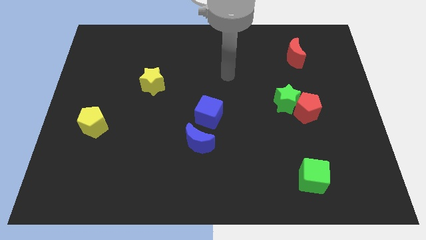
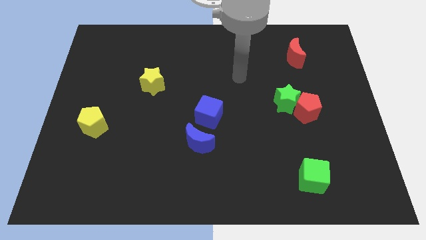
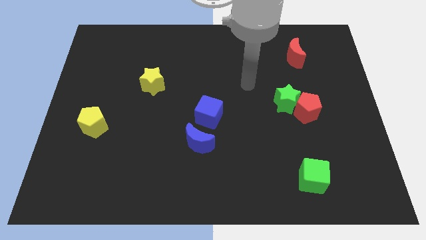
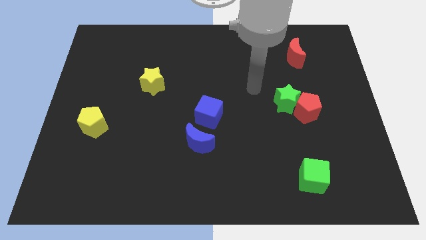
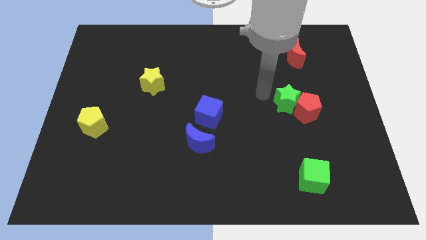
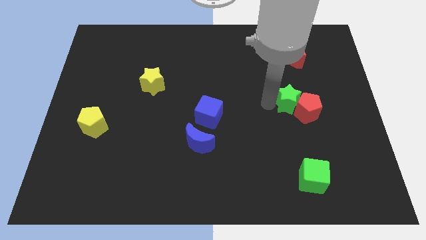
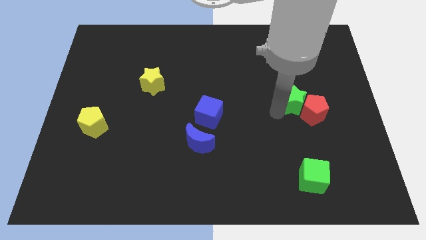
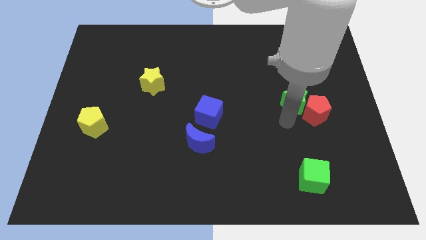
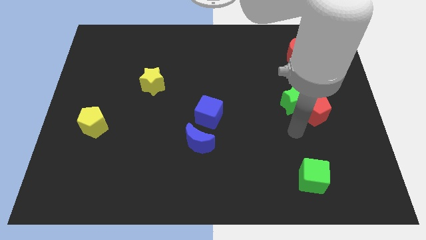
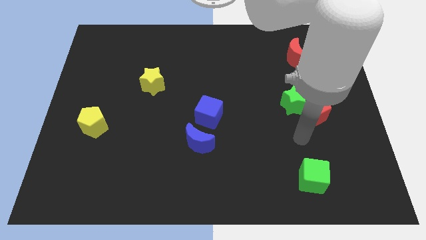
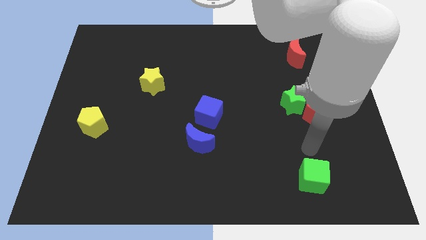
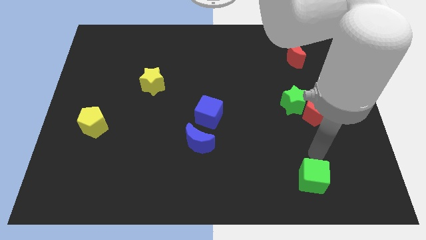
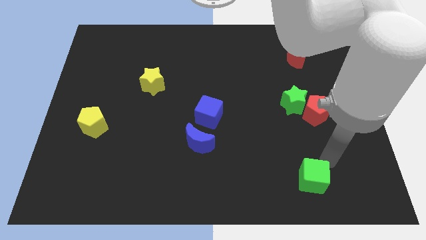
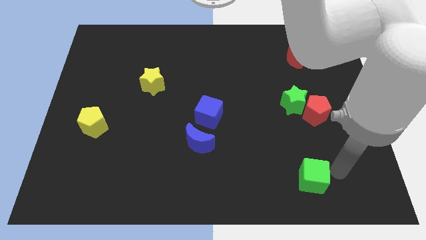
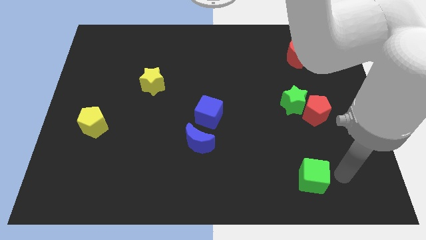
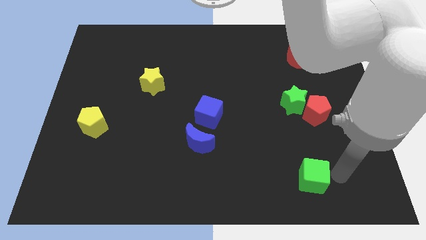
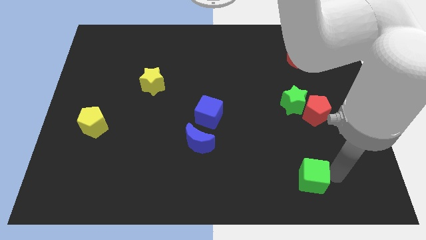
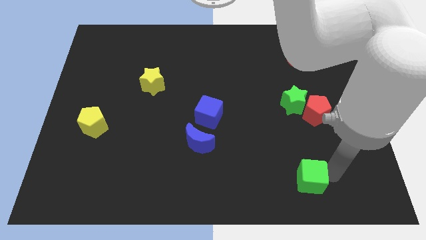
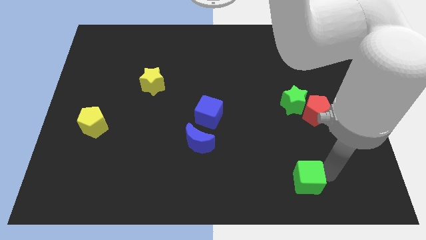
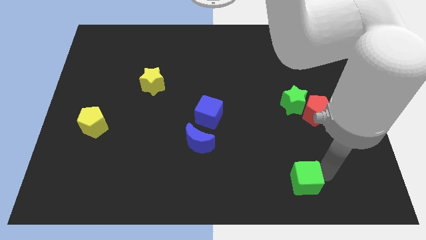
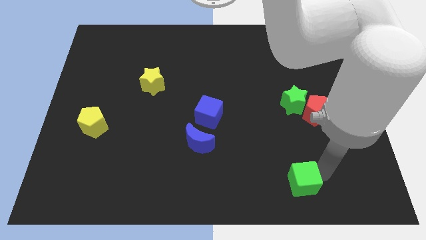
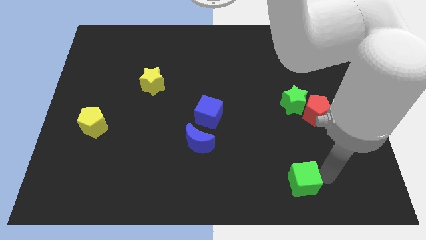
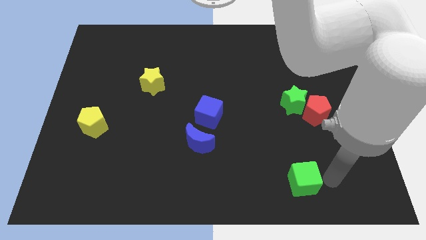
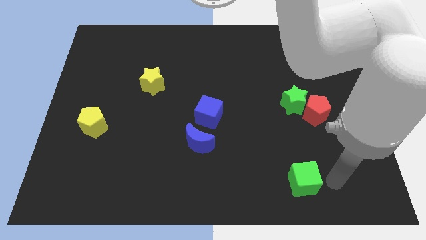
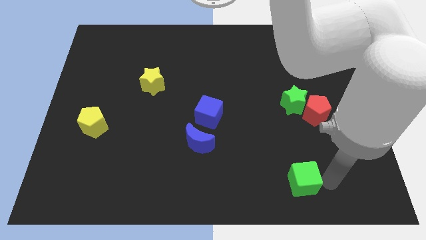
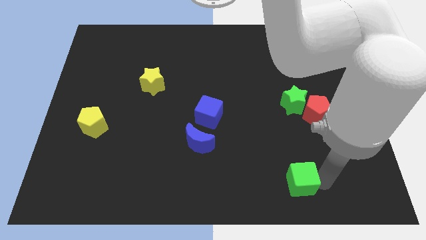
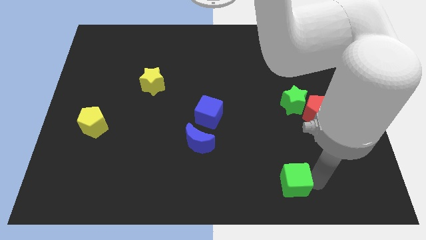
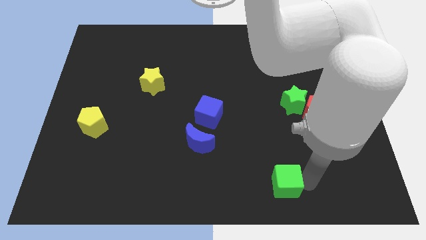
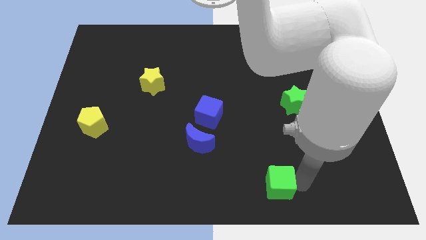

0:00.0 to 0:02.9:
slide the green cube to the left a little bit

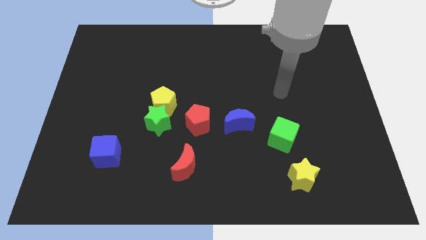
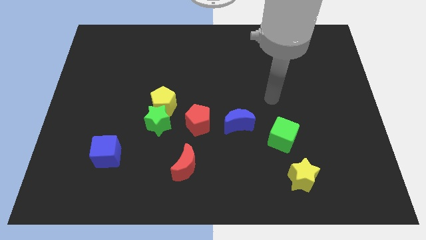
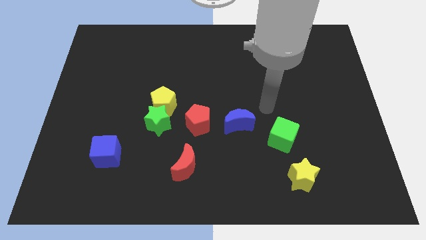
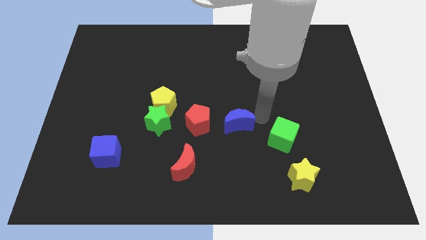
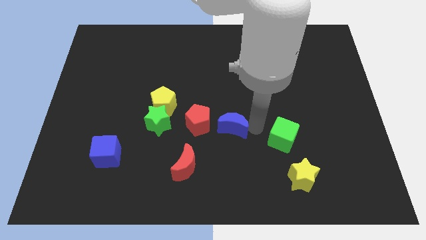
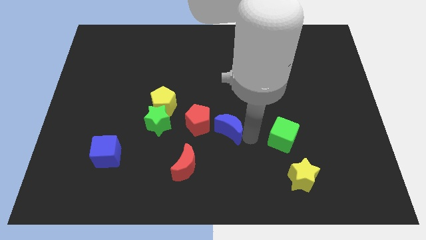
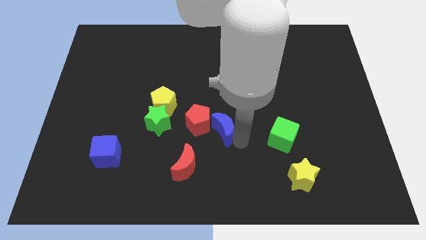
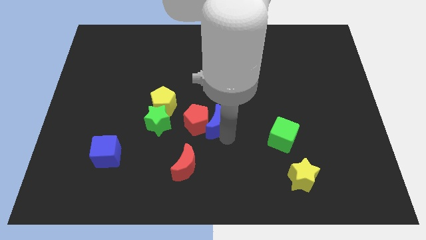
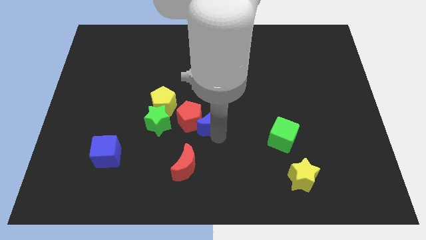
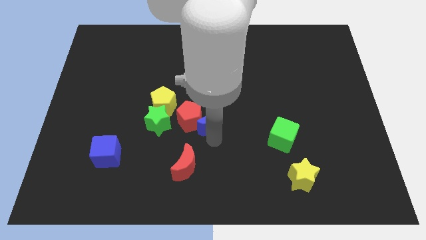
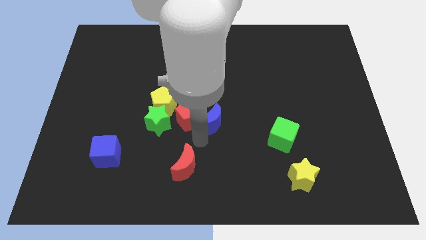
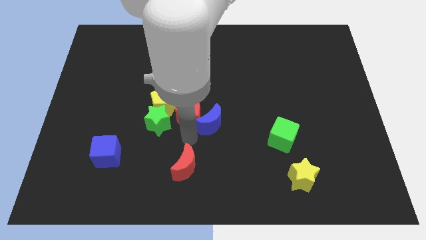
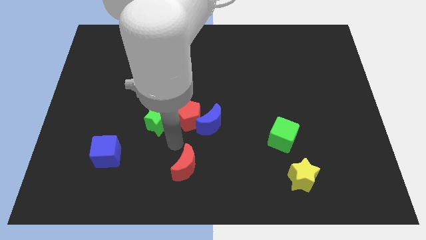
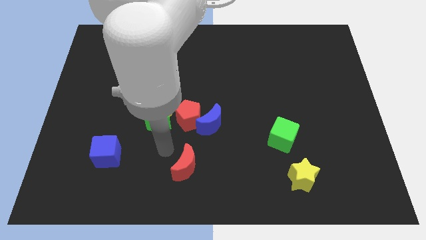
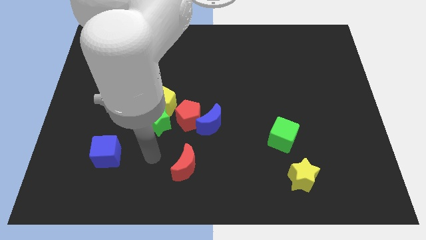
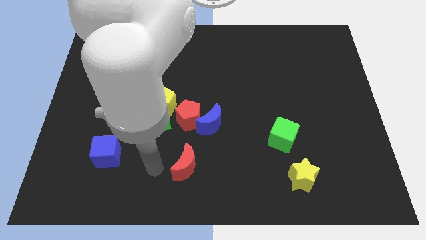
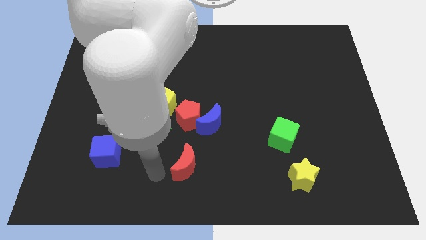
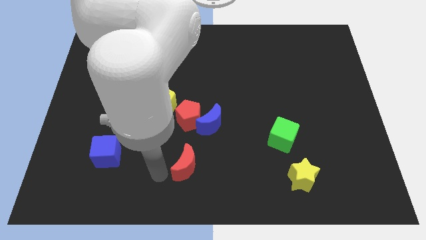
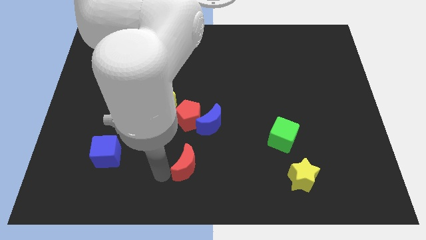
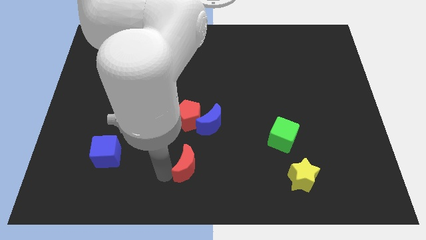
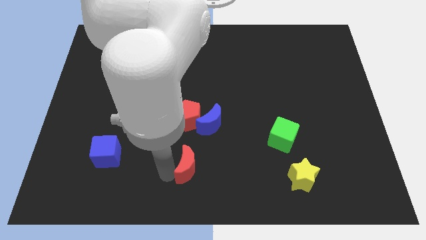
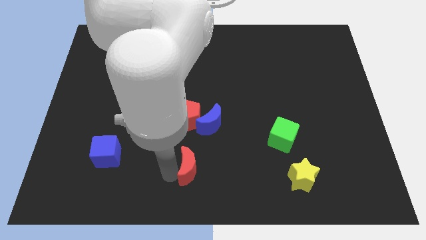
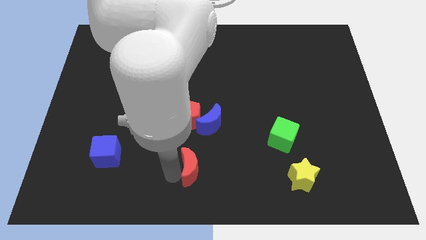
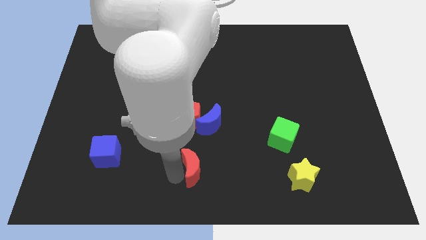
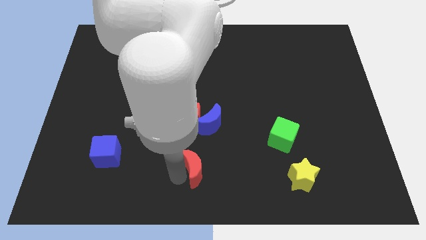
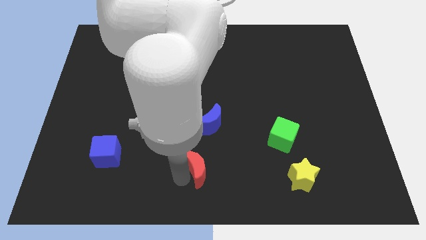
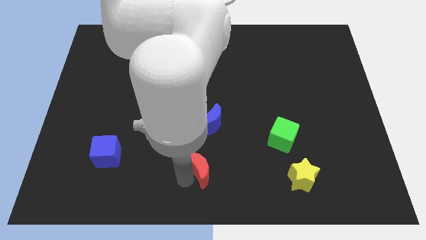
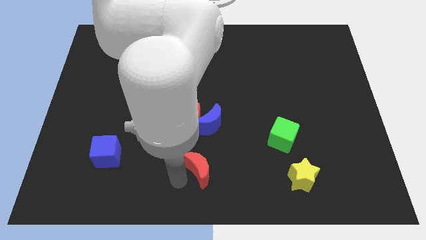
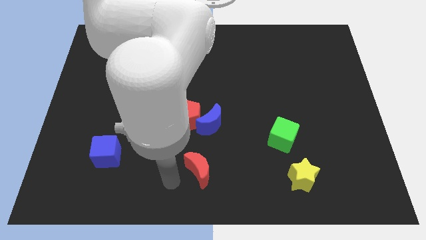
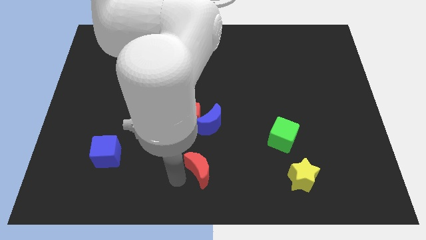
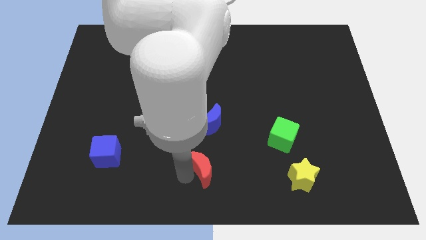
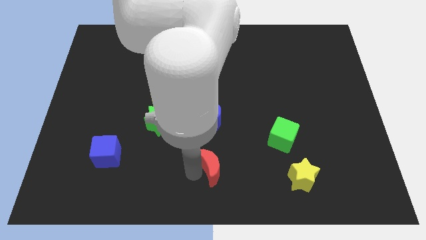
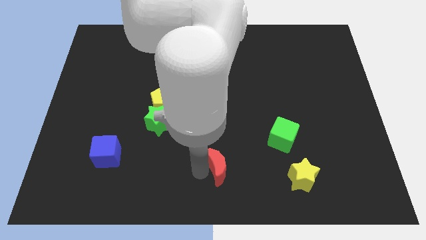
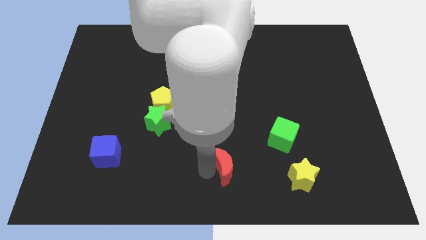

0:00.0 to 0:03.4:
slide the red moon a little to the right

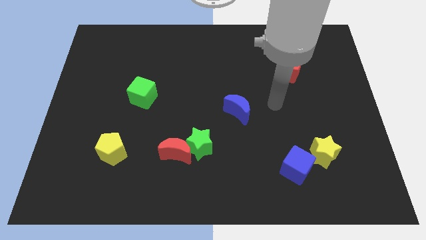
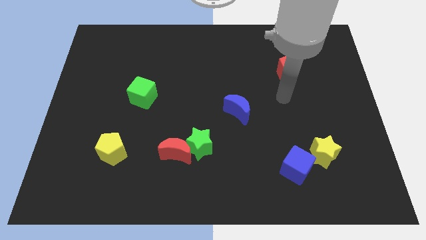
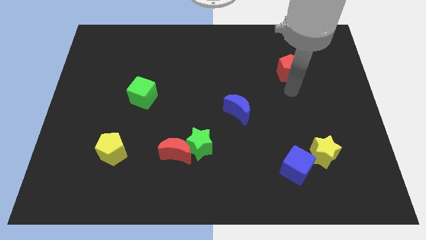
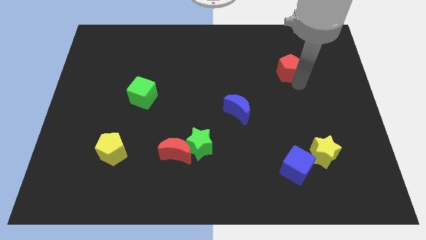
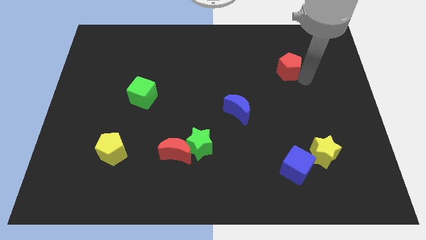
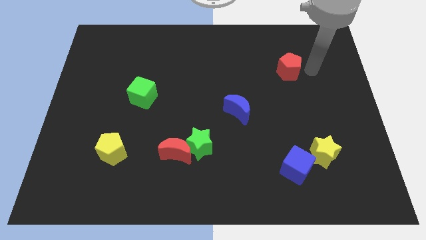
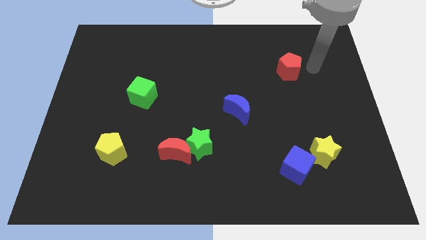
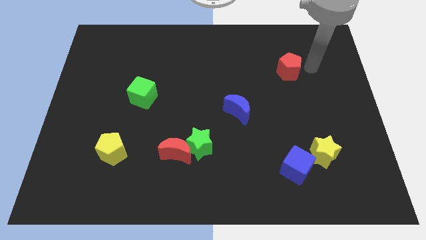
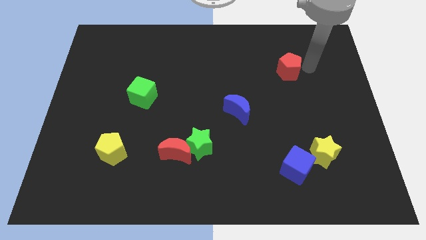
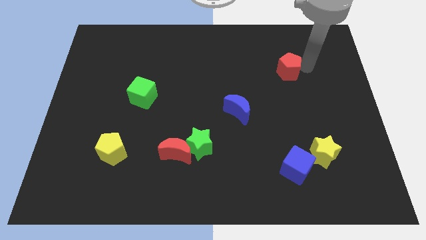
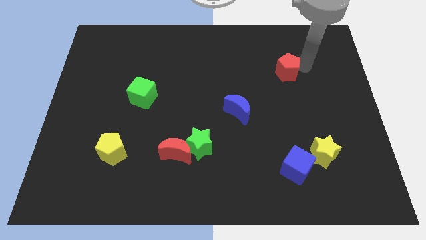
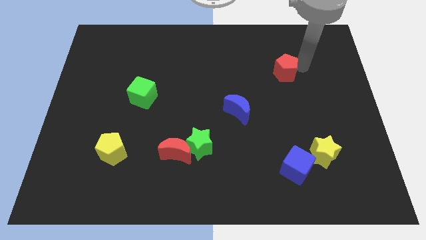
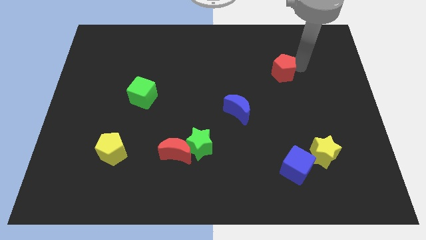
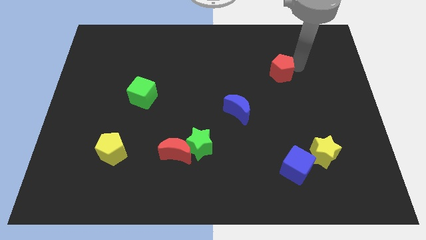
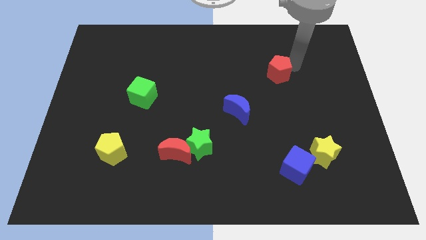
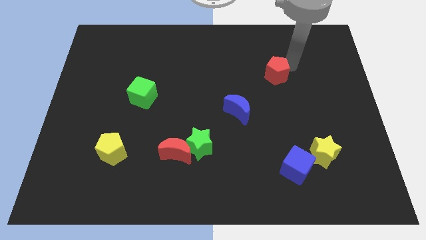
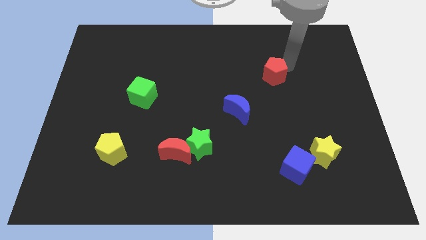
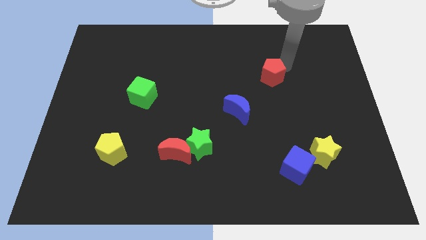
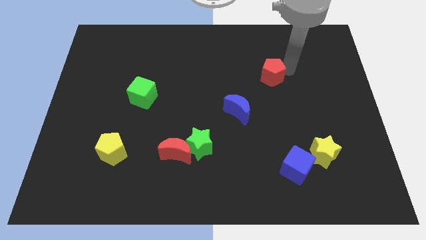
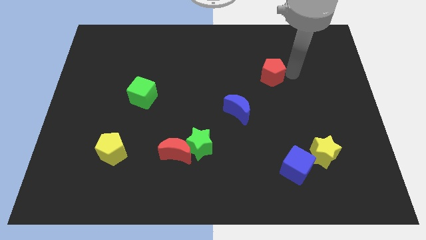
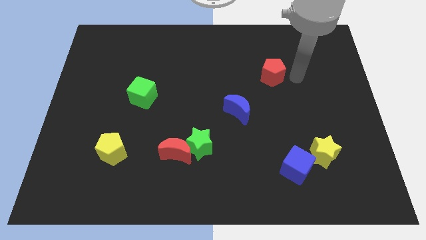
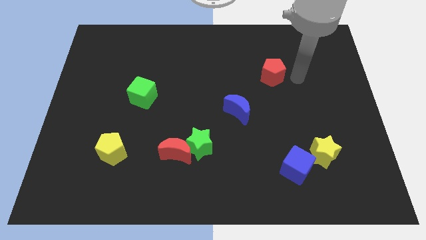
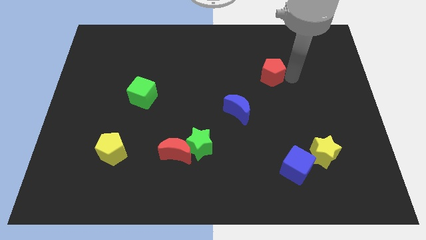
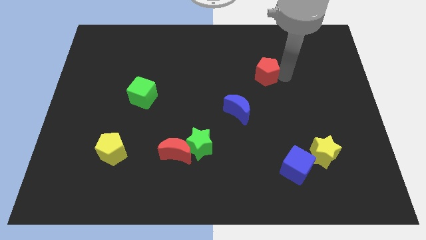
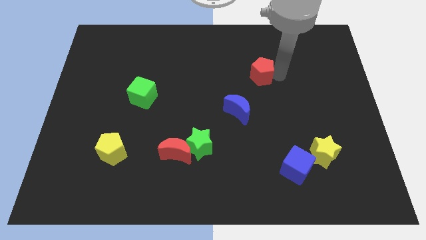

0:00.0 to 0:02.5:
move the red pentagon to the left a little
